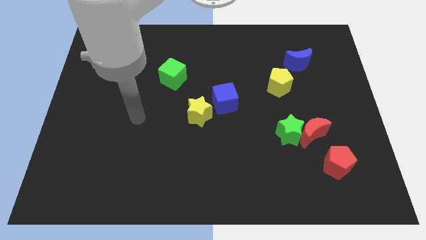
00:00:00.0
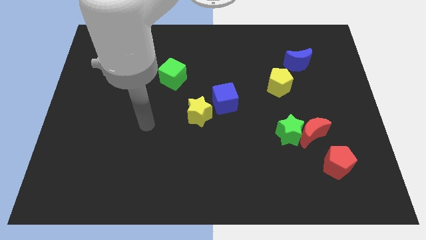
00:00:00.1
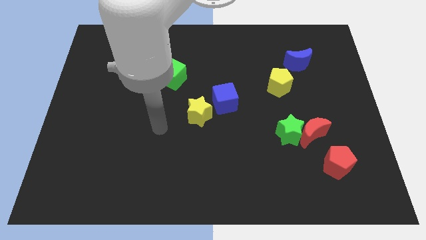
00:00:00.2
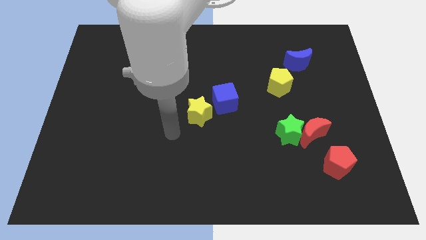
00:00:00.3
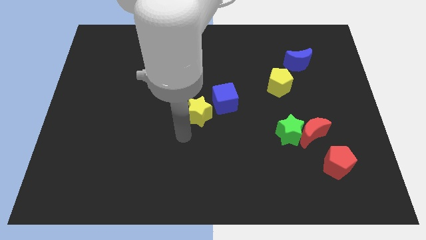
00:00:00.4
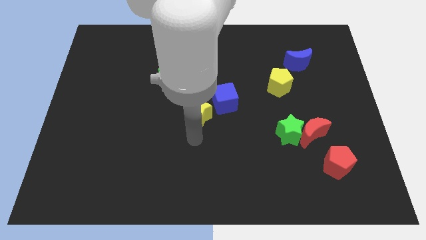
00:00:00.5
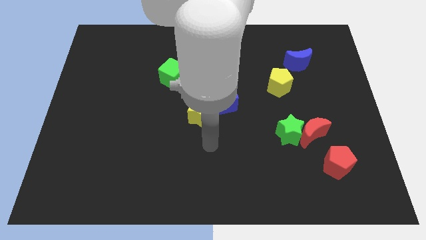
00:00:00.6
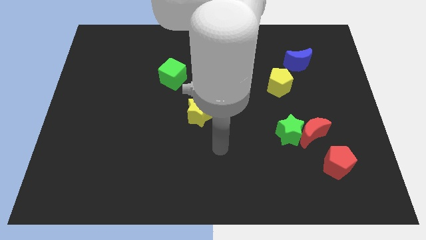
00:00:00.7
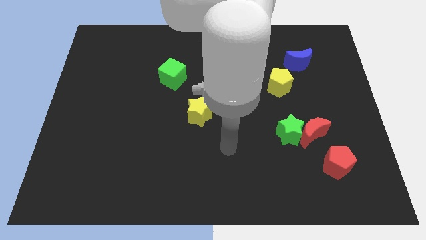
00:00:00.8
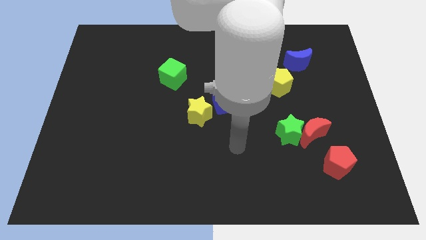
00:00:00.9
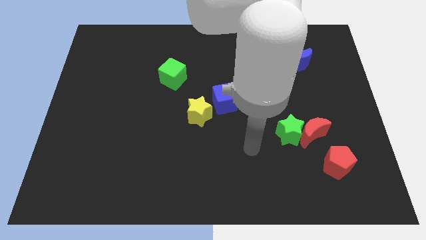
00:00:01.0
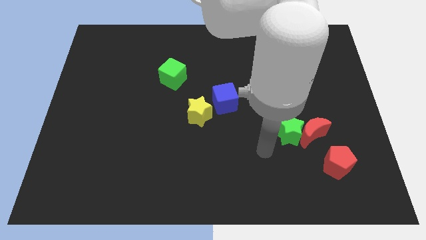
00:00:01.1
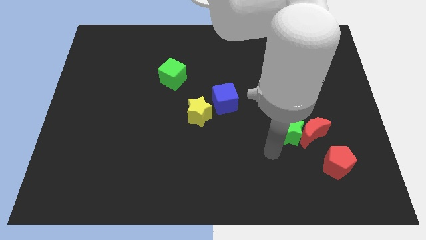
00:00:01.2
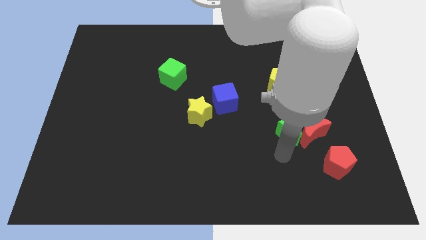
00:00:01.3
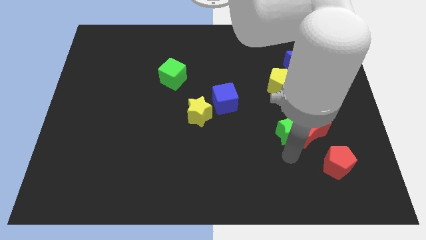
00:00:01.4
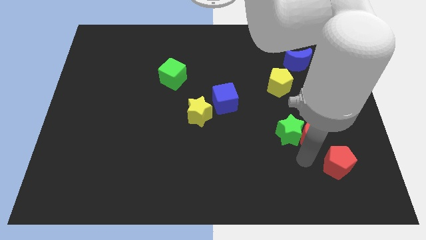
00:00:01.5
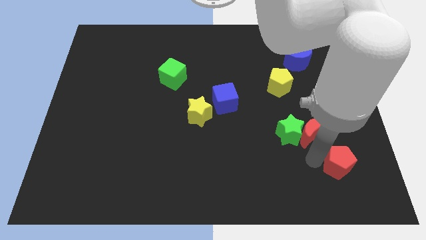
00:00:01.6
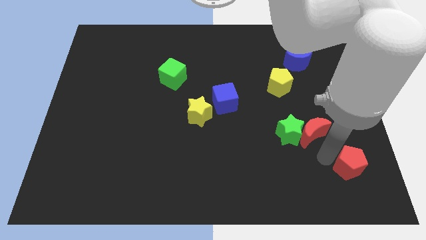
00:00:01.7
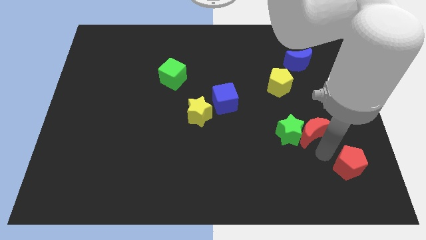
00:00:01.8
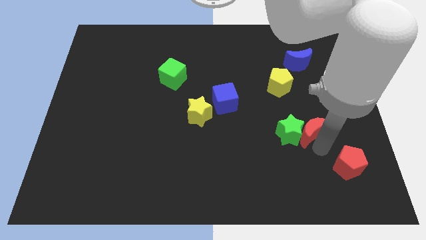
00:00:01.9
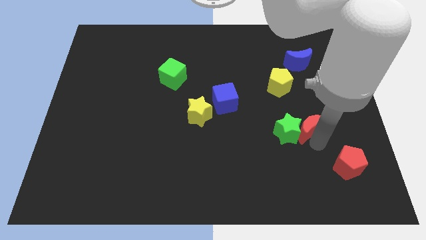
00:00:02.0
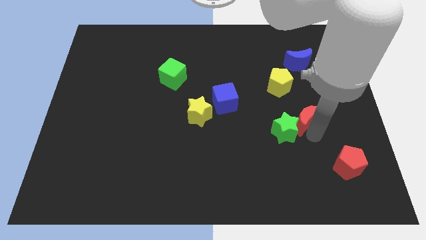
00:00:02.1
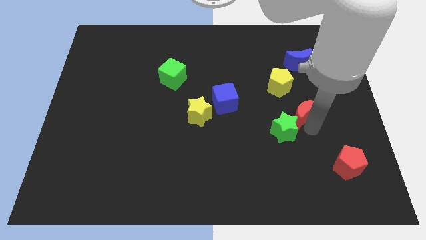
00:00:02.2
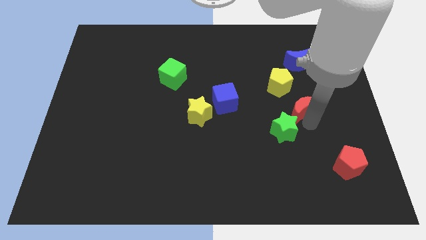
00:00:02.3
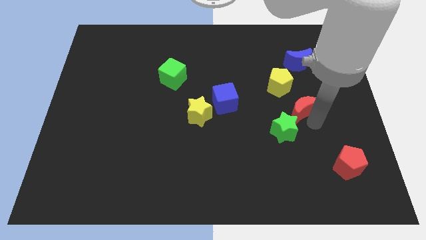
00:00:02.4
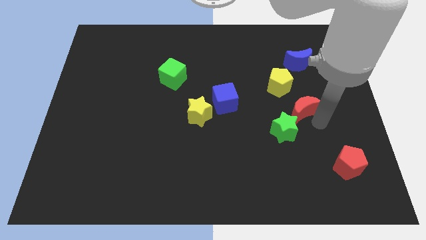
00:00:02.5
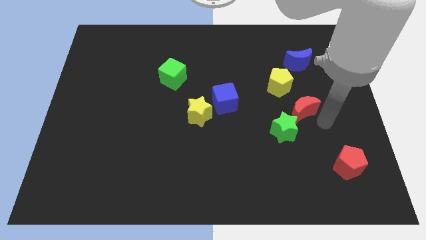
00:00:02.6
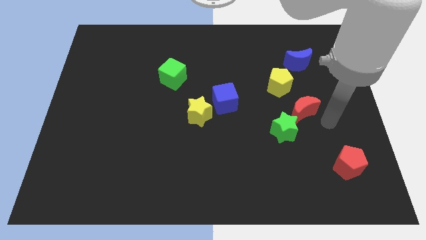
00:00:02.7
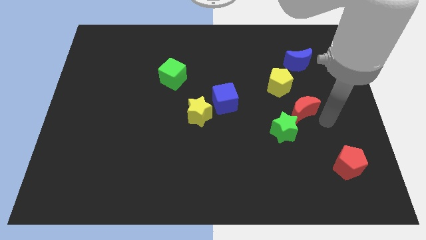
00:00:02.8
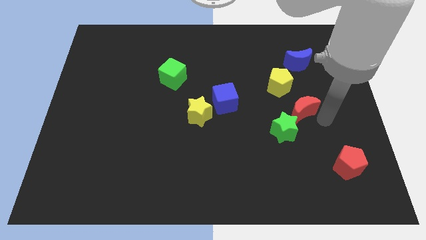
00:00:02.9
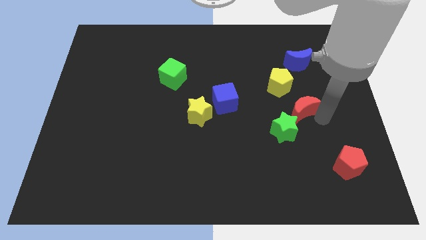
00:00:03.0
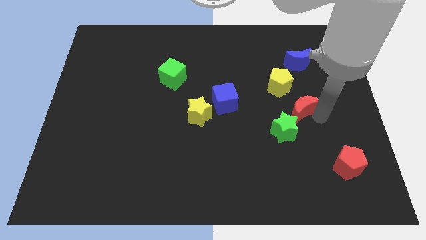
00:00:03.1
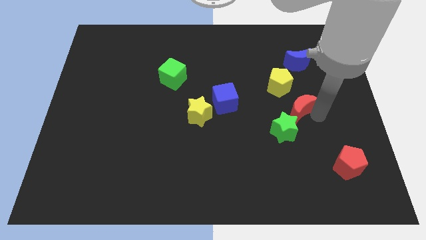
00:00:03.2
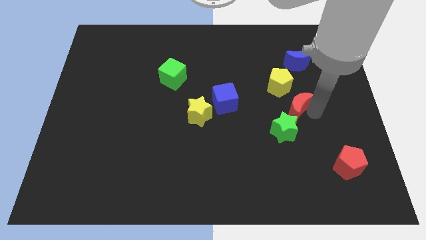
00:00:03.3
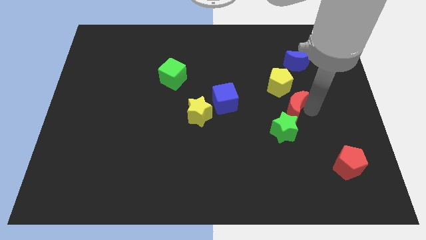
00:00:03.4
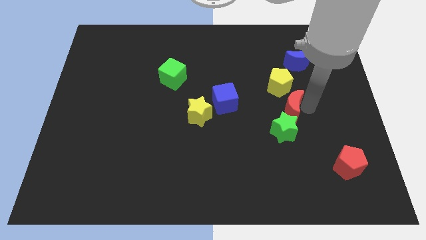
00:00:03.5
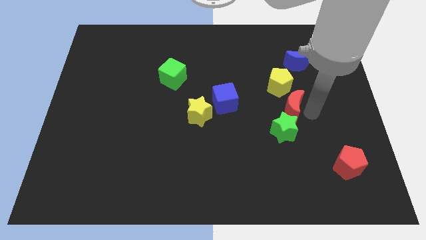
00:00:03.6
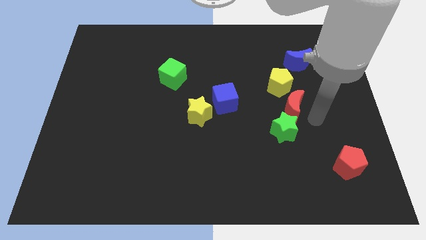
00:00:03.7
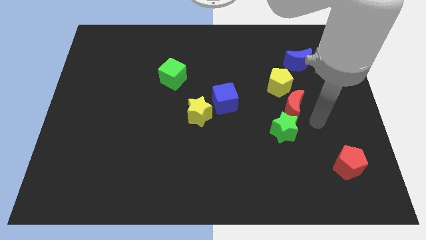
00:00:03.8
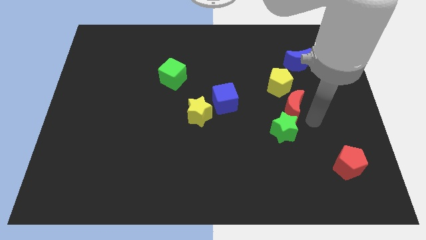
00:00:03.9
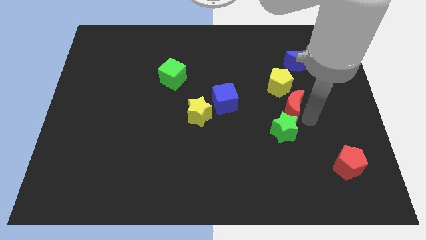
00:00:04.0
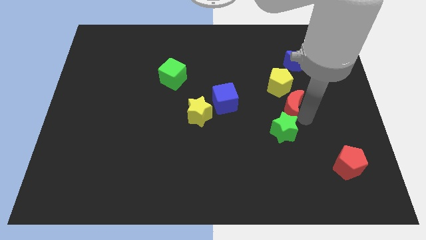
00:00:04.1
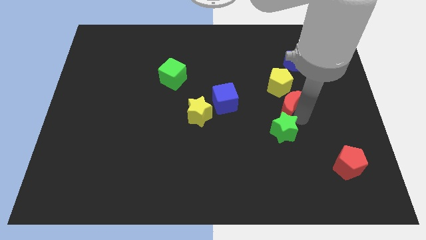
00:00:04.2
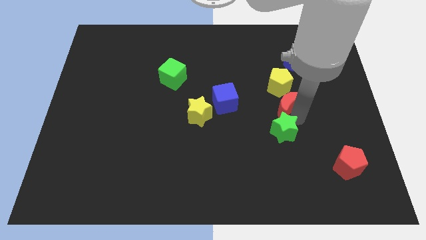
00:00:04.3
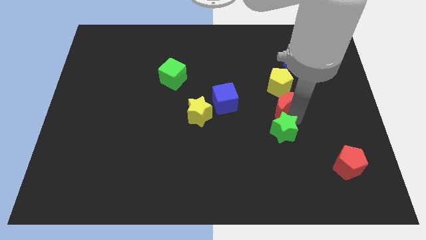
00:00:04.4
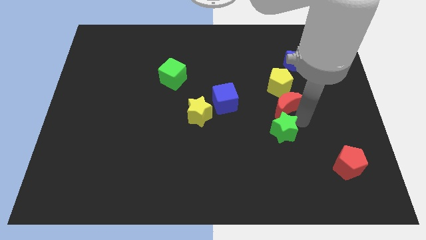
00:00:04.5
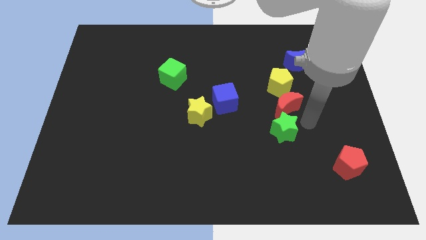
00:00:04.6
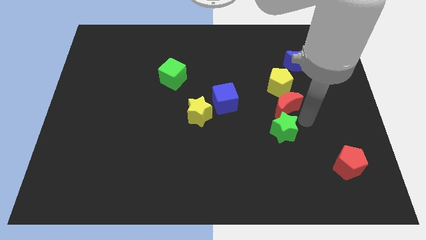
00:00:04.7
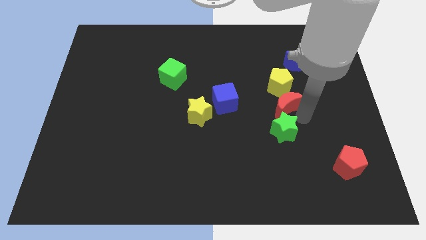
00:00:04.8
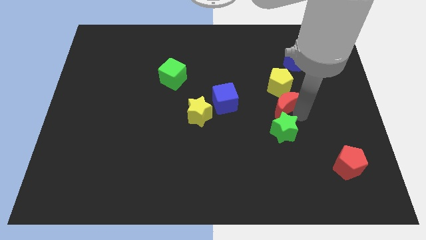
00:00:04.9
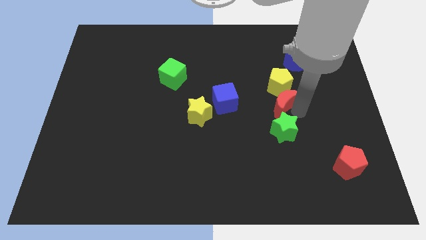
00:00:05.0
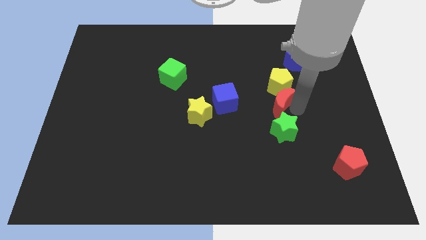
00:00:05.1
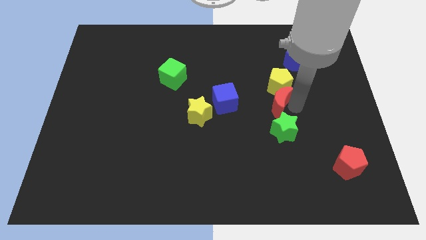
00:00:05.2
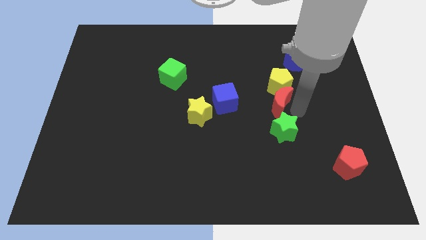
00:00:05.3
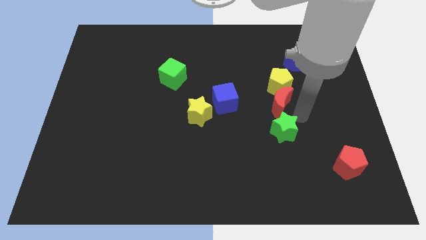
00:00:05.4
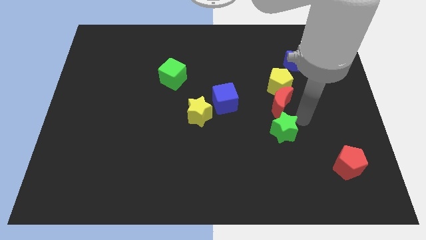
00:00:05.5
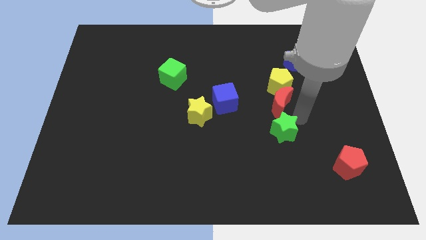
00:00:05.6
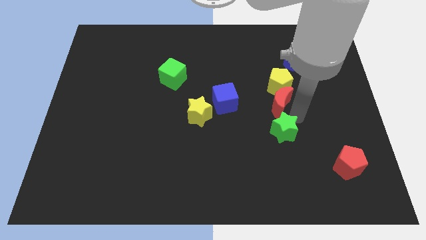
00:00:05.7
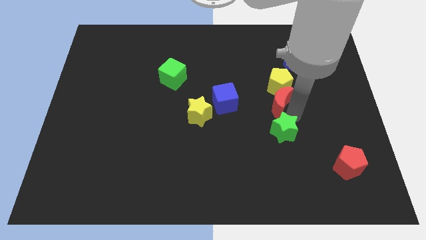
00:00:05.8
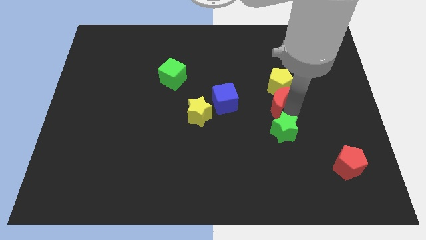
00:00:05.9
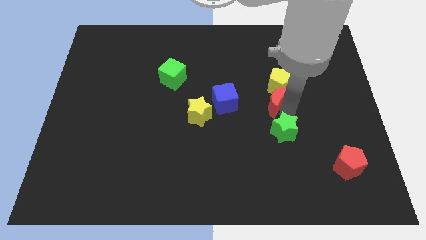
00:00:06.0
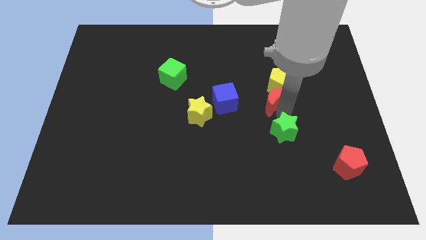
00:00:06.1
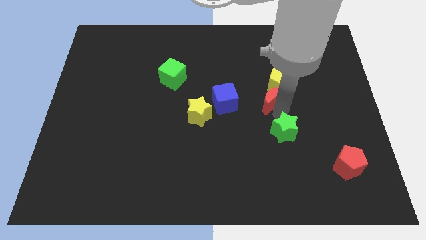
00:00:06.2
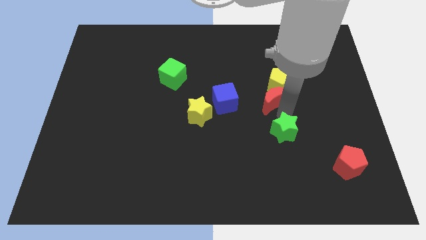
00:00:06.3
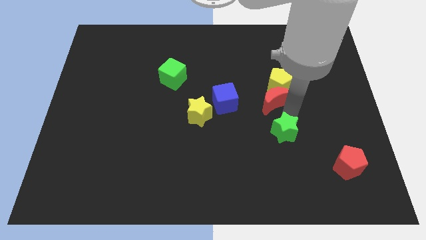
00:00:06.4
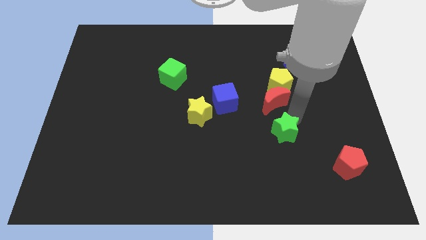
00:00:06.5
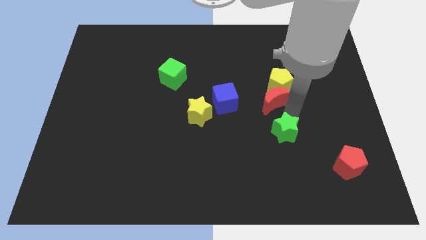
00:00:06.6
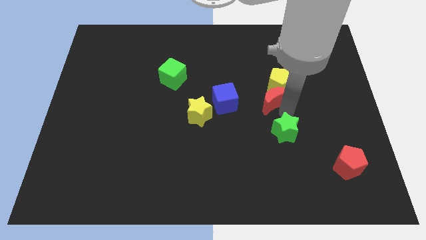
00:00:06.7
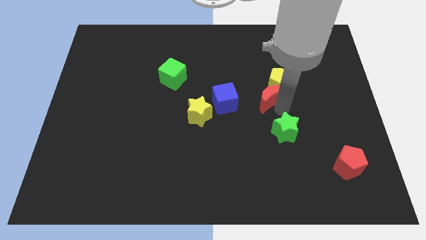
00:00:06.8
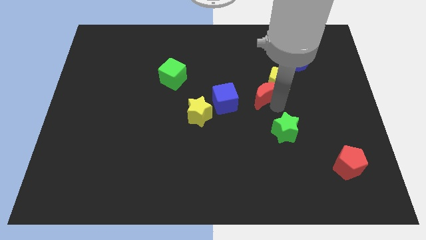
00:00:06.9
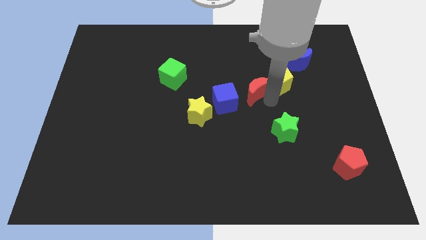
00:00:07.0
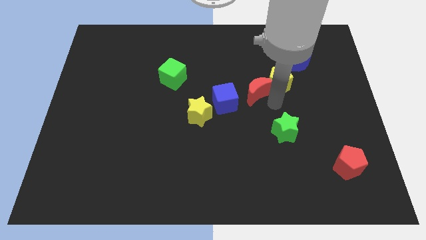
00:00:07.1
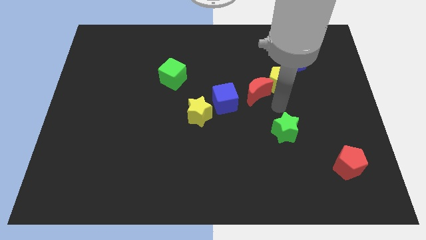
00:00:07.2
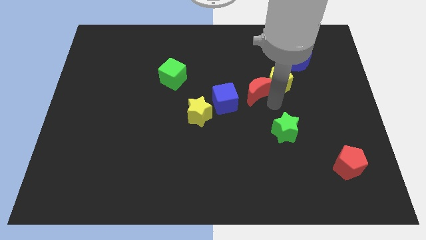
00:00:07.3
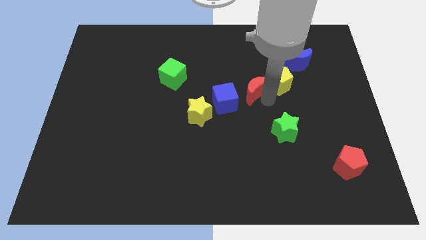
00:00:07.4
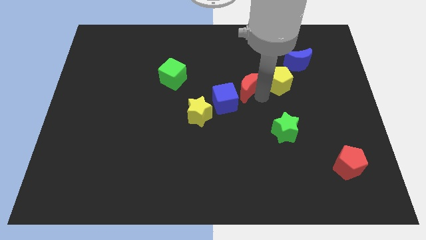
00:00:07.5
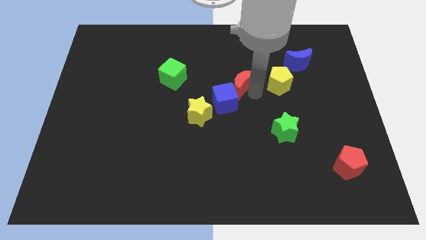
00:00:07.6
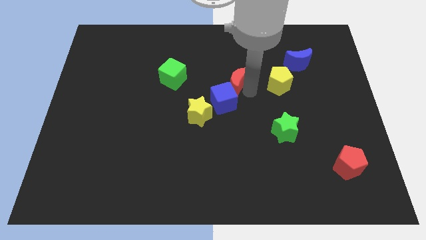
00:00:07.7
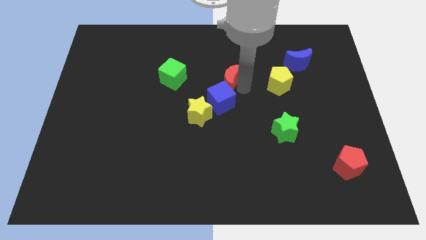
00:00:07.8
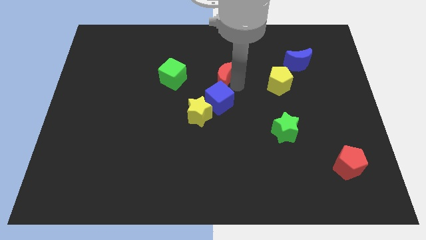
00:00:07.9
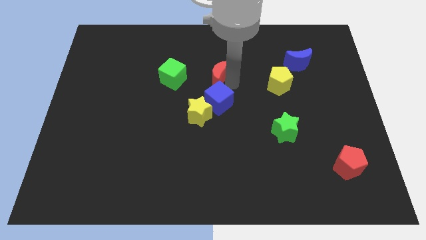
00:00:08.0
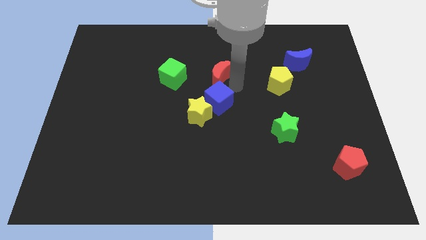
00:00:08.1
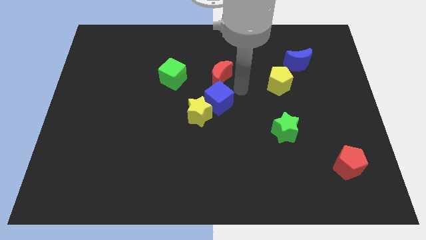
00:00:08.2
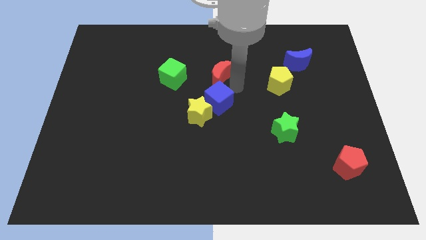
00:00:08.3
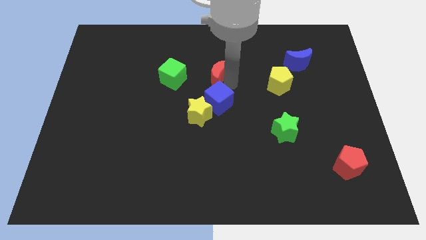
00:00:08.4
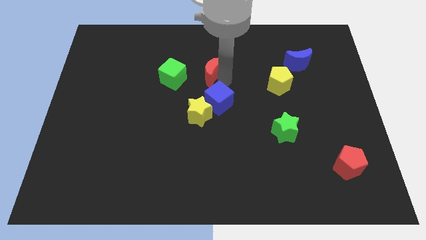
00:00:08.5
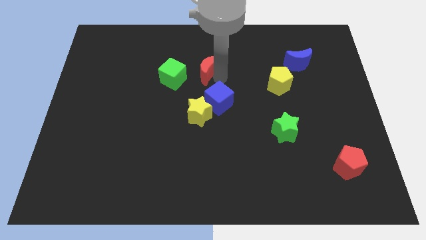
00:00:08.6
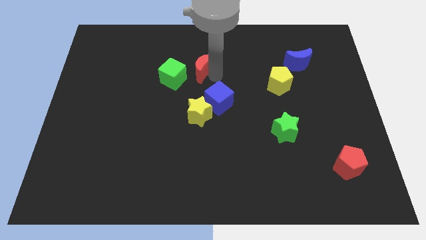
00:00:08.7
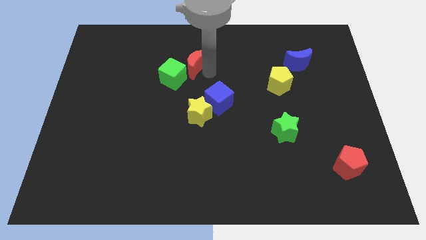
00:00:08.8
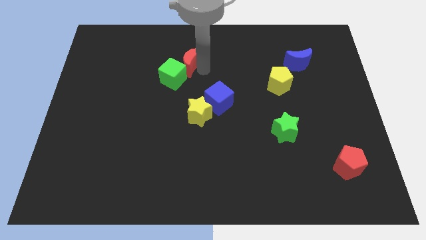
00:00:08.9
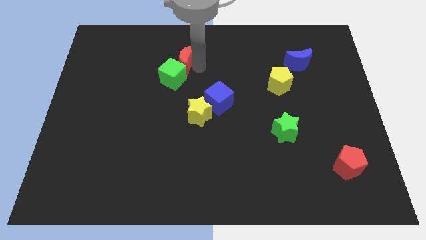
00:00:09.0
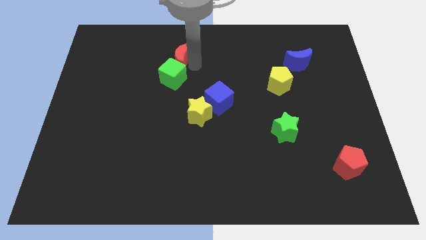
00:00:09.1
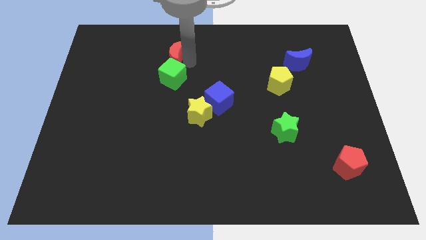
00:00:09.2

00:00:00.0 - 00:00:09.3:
put the red moon diagonally up and to the left of the green cube
